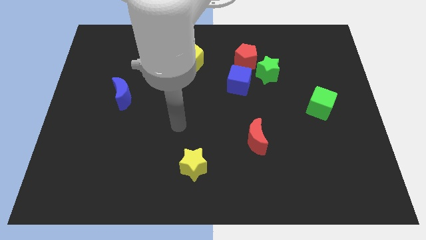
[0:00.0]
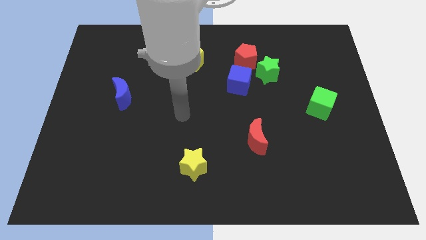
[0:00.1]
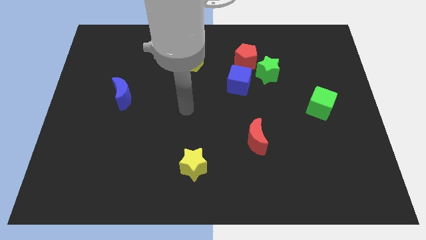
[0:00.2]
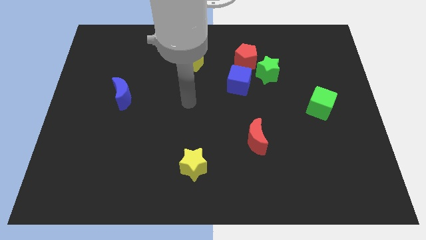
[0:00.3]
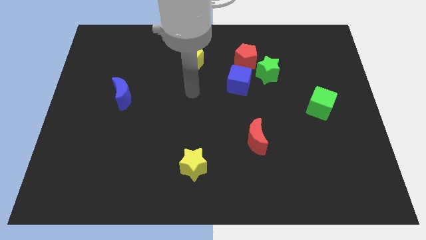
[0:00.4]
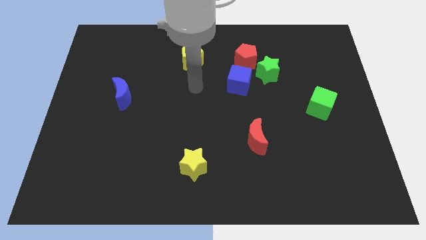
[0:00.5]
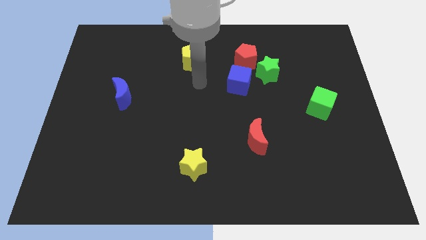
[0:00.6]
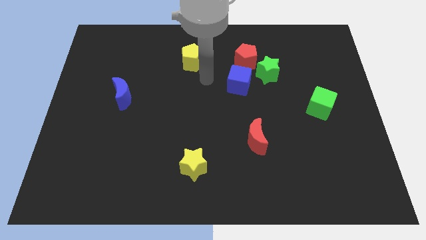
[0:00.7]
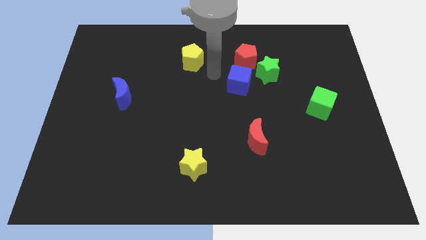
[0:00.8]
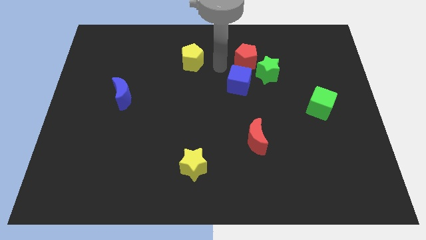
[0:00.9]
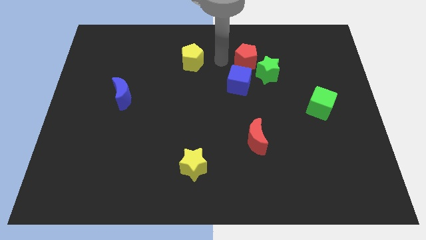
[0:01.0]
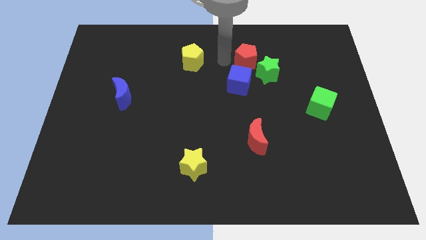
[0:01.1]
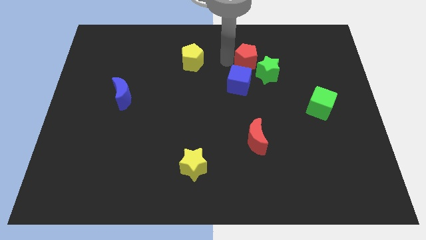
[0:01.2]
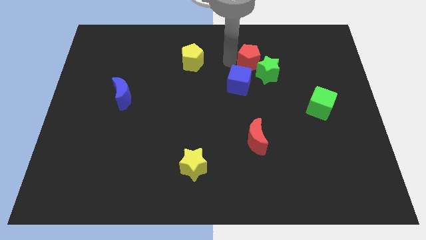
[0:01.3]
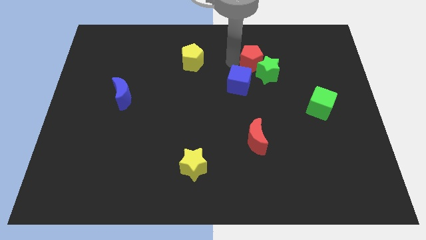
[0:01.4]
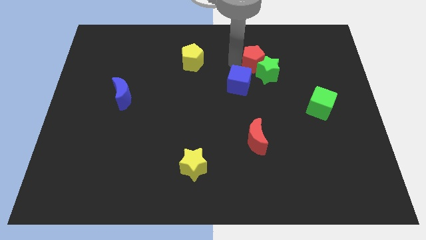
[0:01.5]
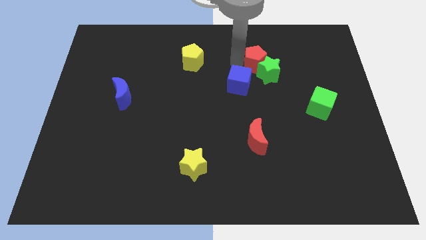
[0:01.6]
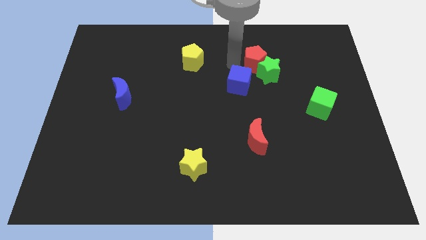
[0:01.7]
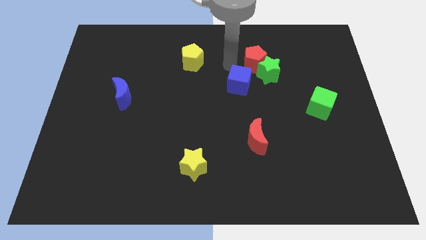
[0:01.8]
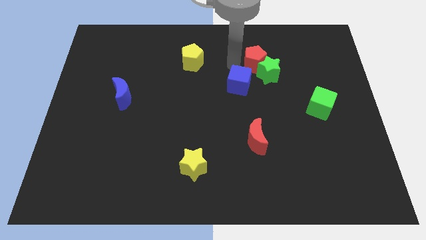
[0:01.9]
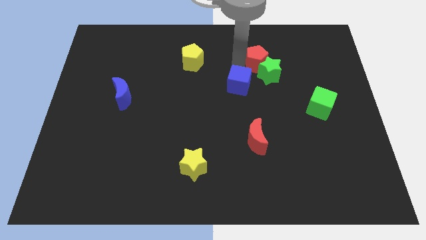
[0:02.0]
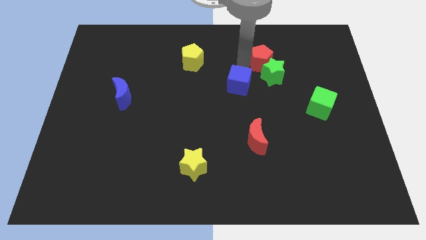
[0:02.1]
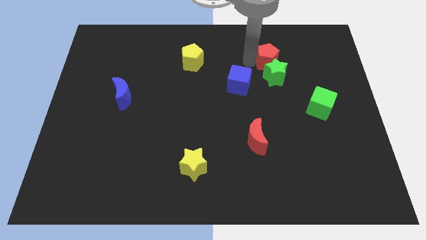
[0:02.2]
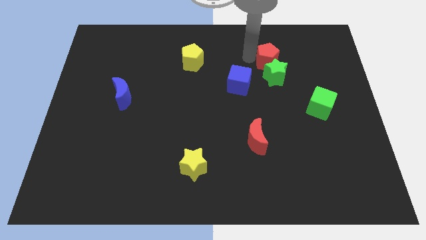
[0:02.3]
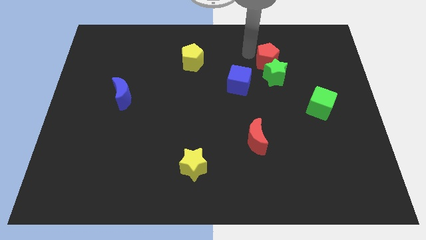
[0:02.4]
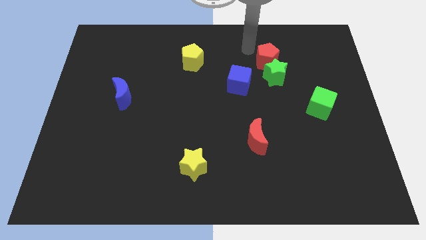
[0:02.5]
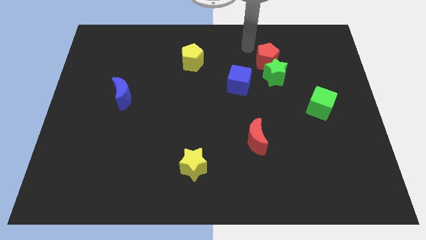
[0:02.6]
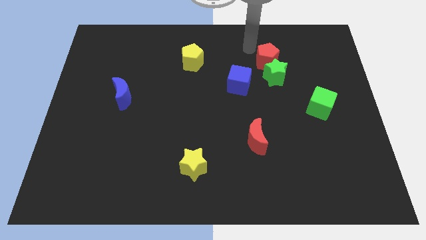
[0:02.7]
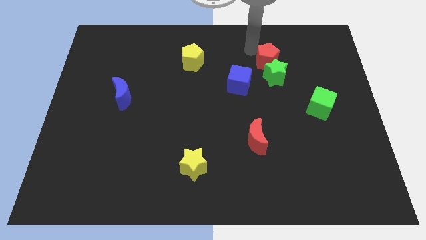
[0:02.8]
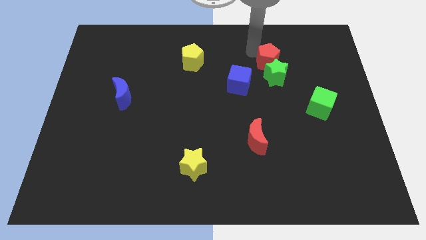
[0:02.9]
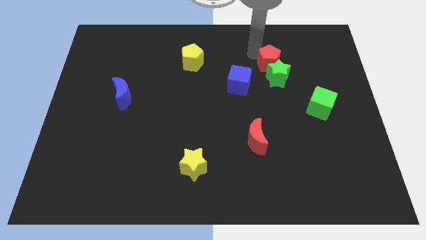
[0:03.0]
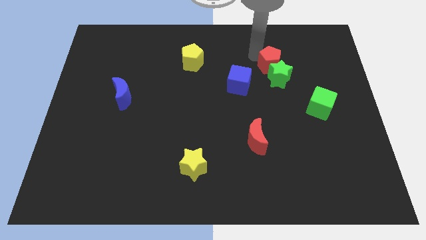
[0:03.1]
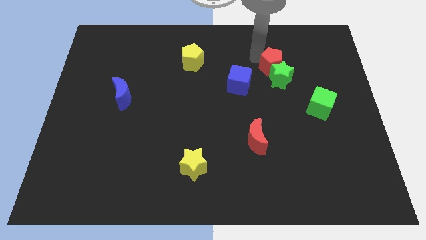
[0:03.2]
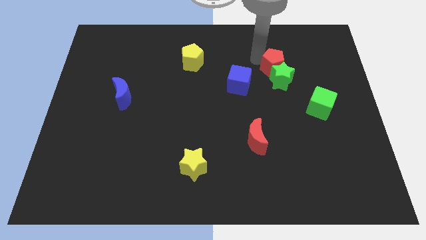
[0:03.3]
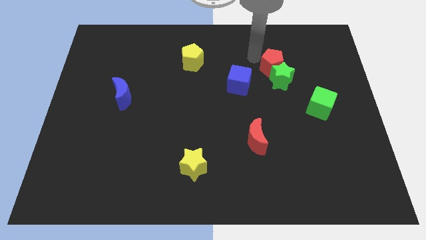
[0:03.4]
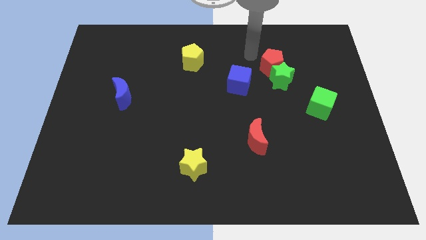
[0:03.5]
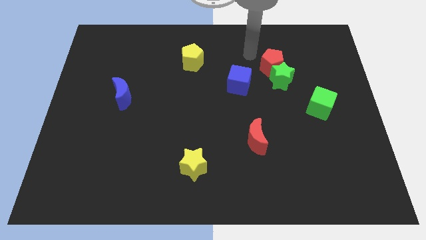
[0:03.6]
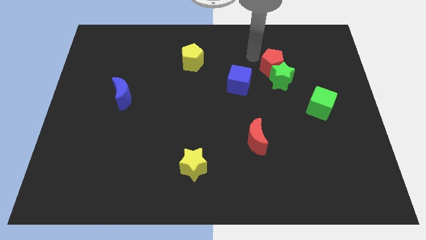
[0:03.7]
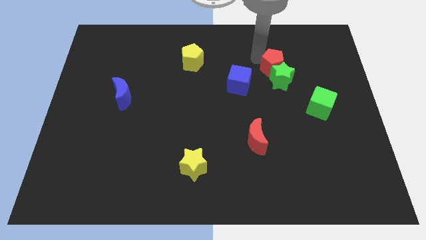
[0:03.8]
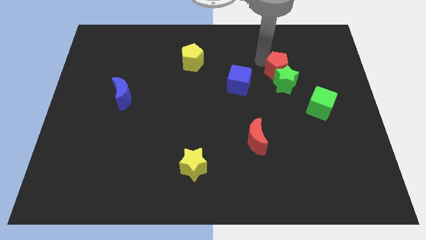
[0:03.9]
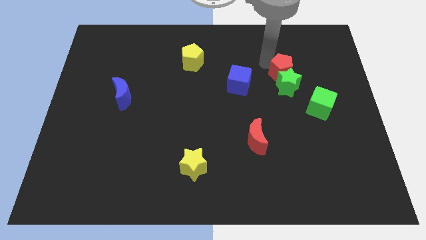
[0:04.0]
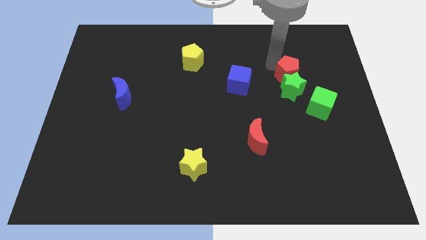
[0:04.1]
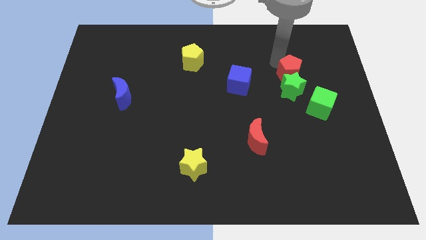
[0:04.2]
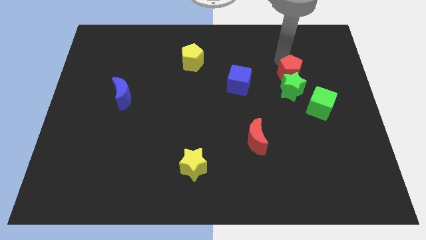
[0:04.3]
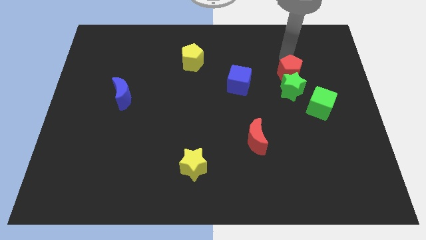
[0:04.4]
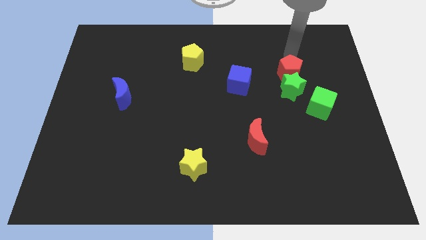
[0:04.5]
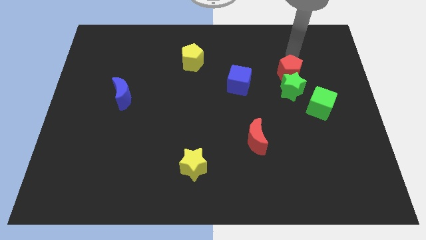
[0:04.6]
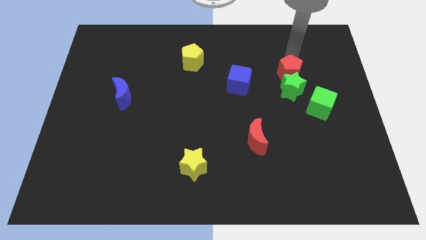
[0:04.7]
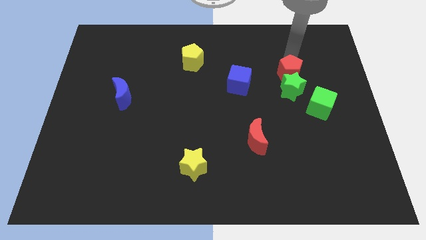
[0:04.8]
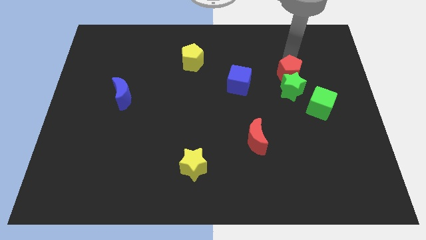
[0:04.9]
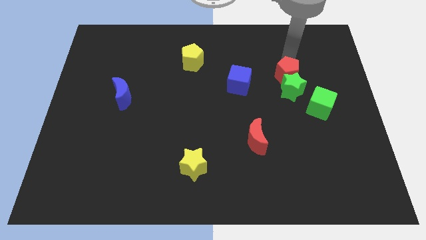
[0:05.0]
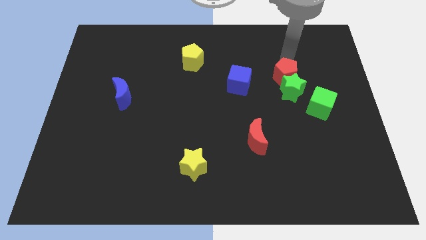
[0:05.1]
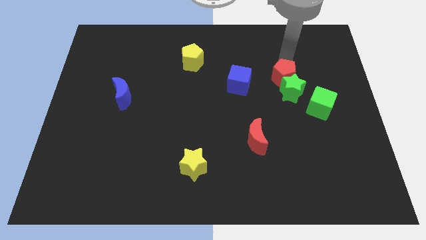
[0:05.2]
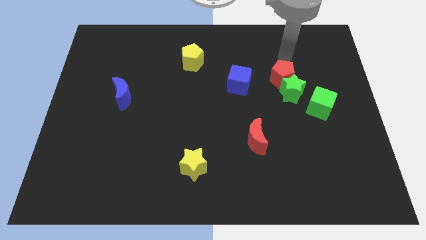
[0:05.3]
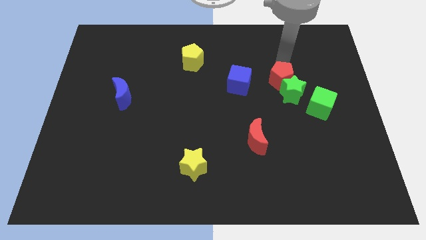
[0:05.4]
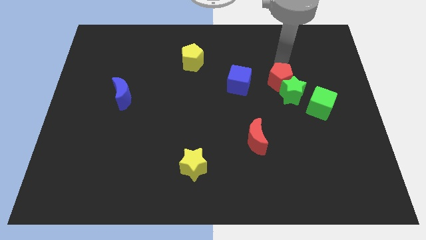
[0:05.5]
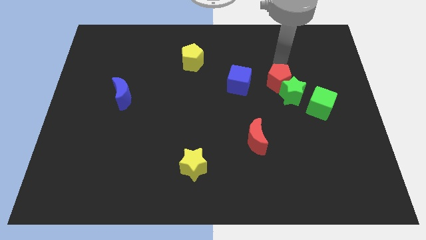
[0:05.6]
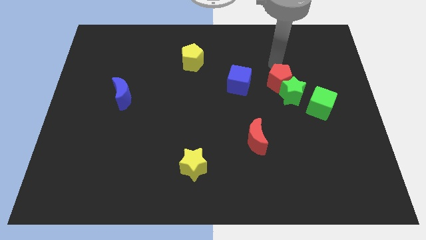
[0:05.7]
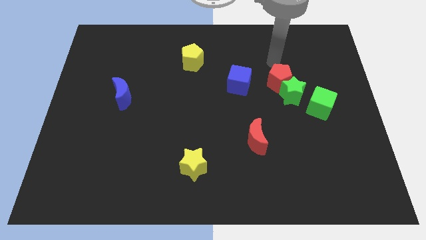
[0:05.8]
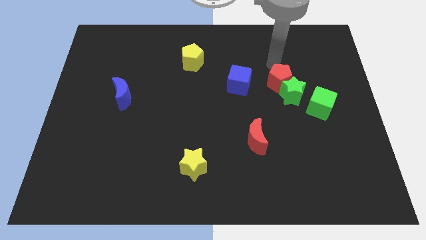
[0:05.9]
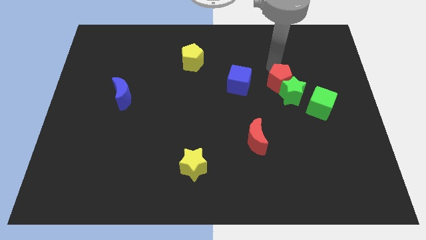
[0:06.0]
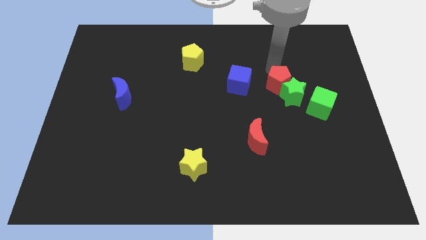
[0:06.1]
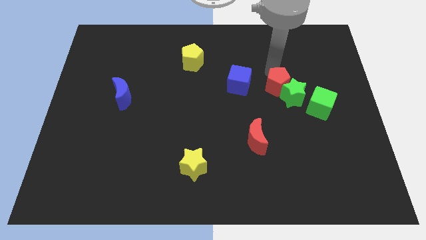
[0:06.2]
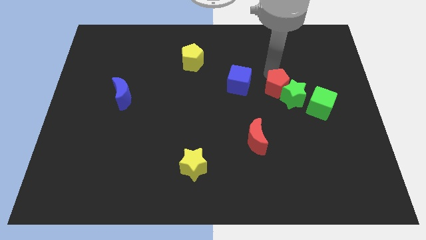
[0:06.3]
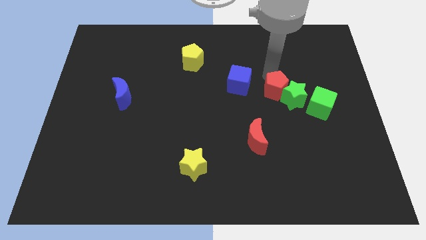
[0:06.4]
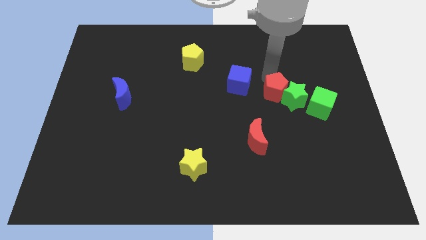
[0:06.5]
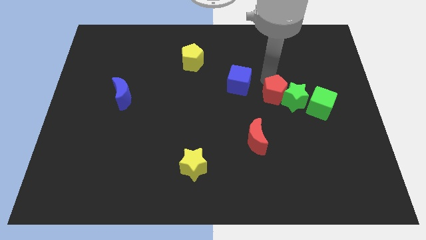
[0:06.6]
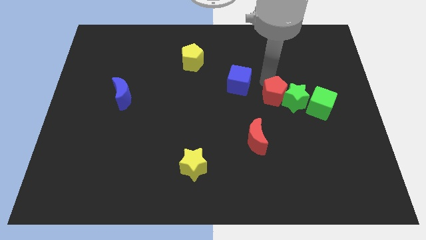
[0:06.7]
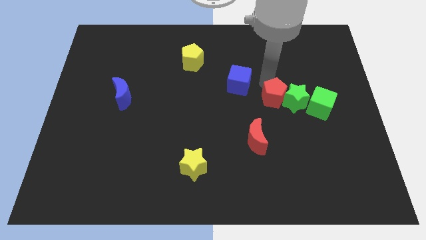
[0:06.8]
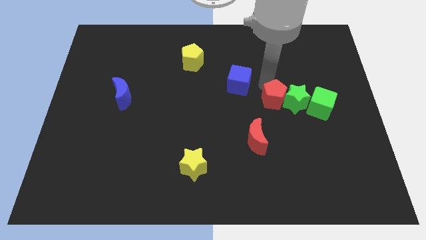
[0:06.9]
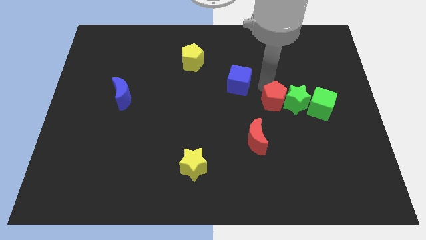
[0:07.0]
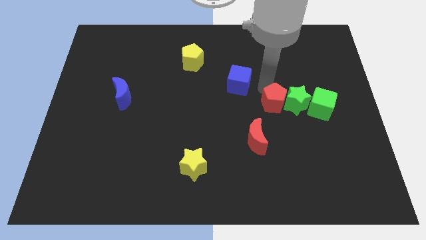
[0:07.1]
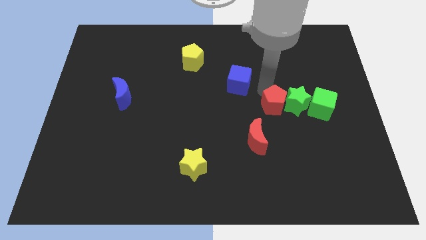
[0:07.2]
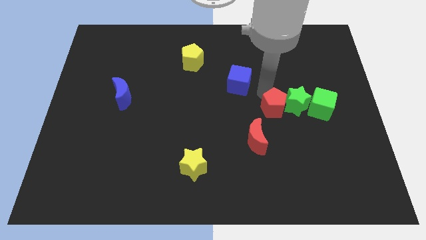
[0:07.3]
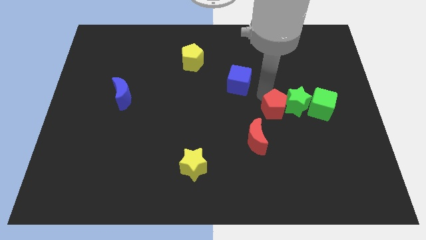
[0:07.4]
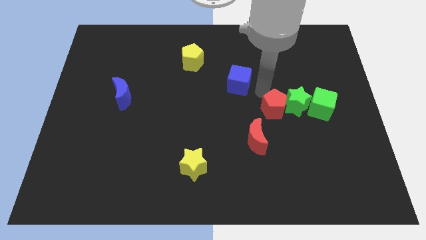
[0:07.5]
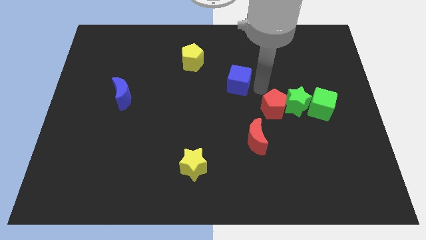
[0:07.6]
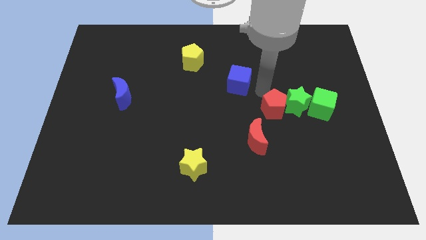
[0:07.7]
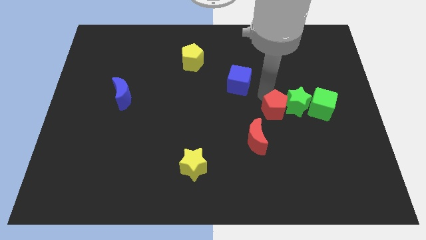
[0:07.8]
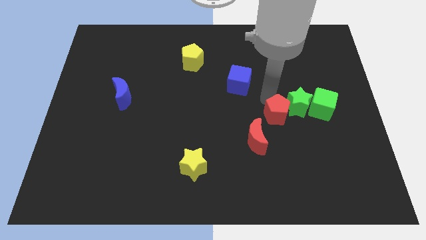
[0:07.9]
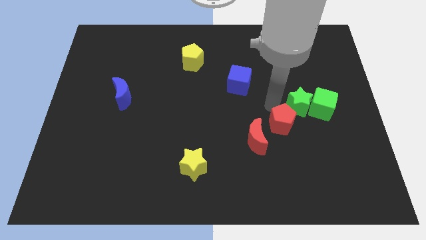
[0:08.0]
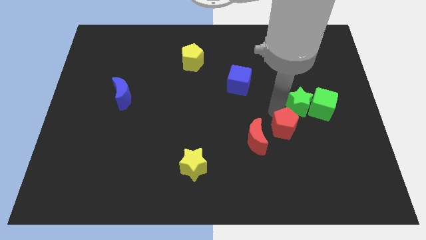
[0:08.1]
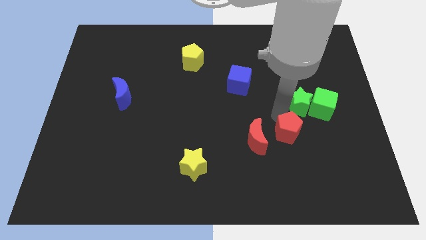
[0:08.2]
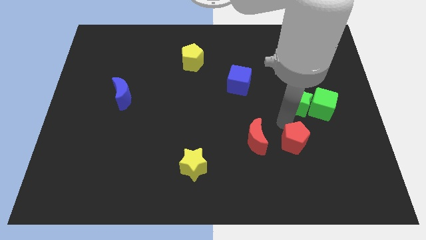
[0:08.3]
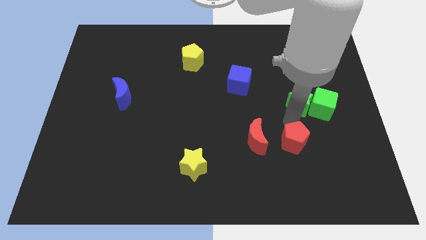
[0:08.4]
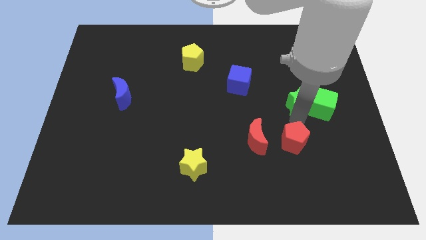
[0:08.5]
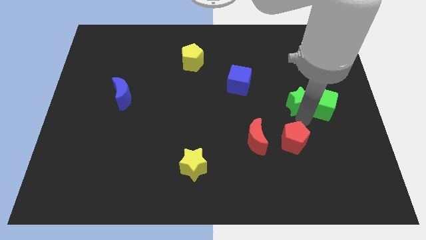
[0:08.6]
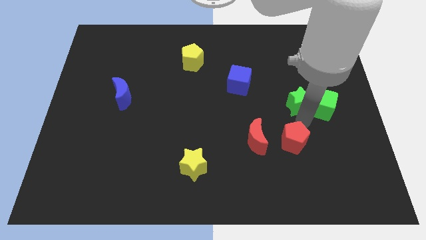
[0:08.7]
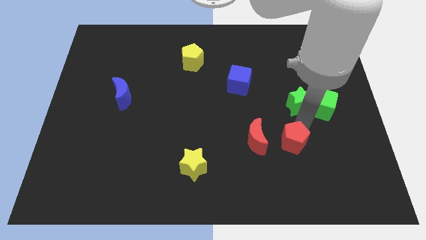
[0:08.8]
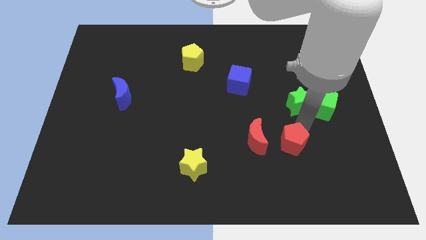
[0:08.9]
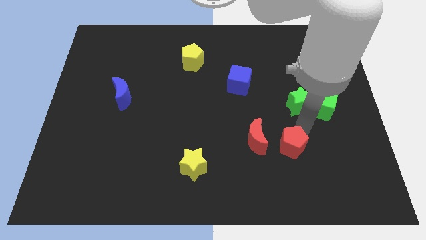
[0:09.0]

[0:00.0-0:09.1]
move the red pentagon diagonally down and to the right of the red moon
